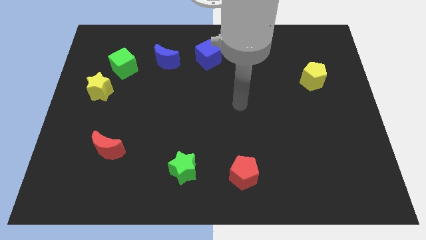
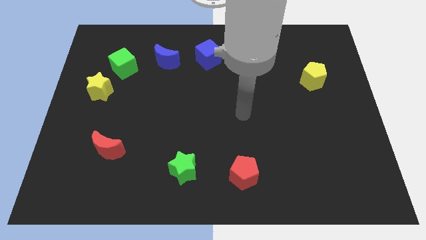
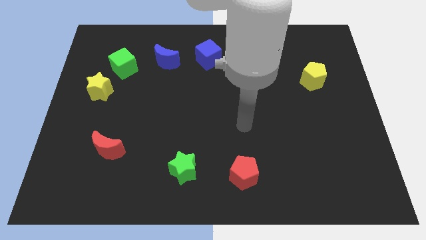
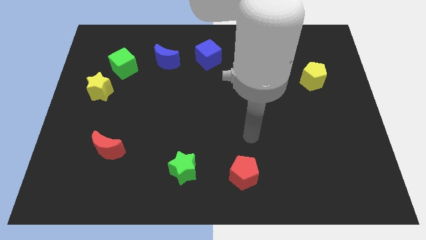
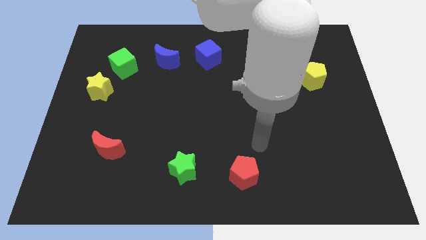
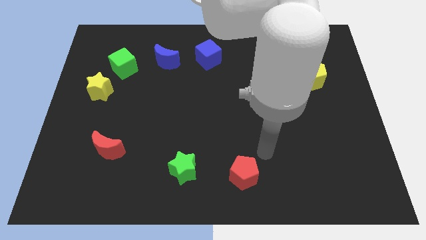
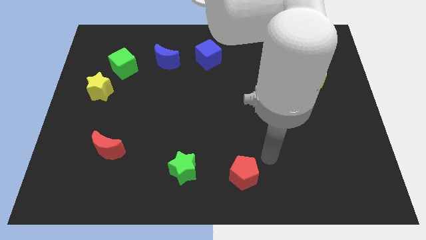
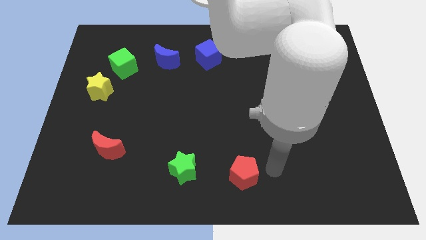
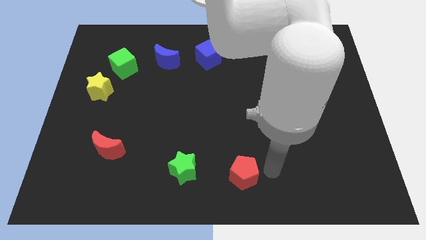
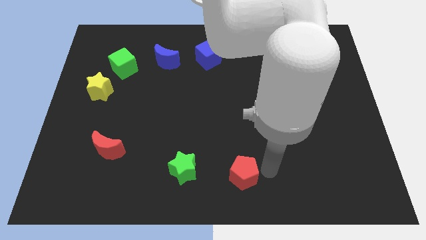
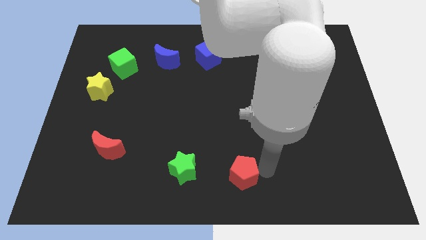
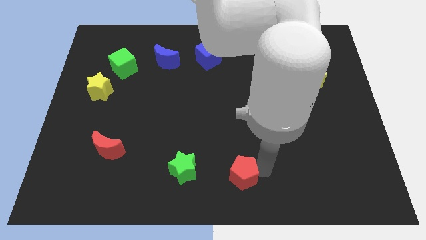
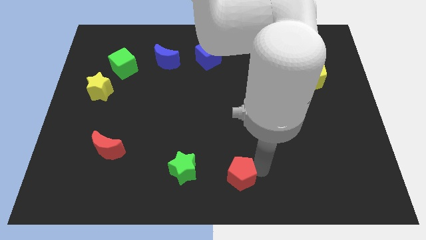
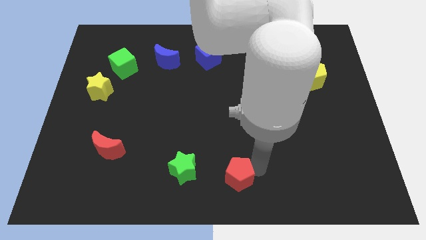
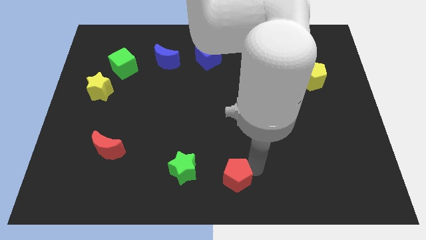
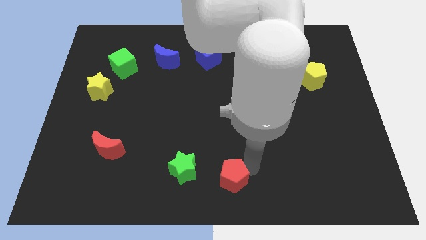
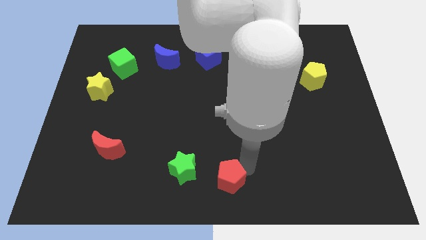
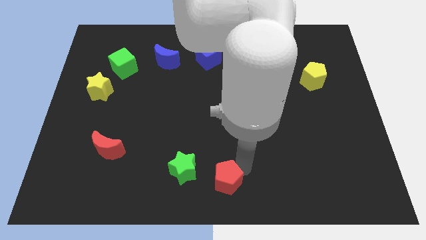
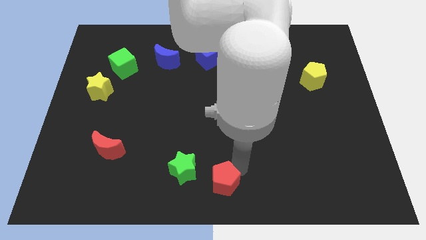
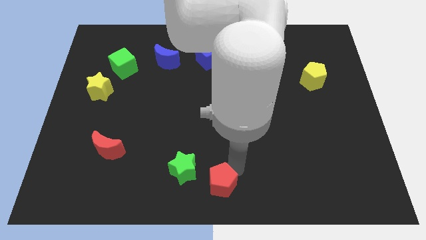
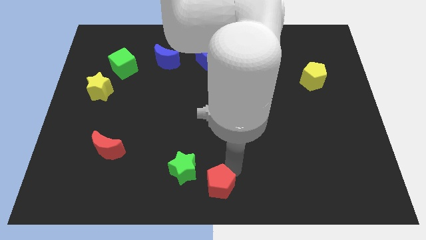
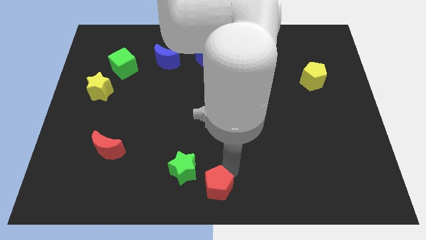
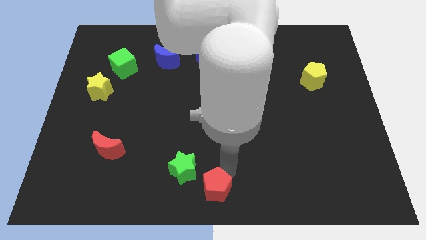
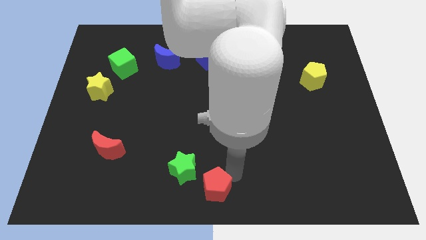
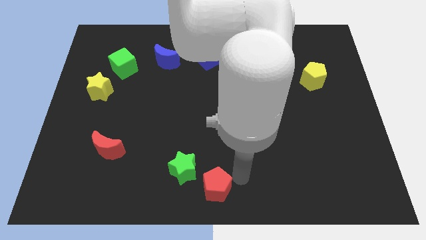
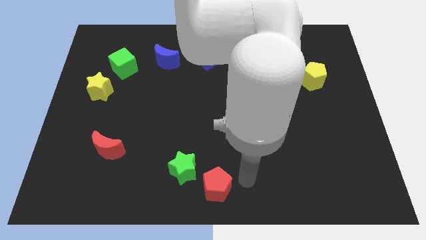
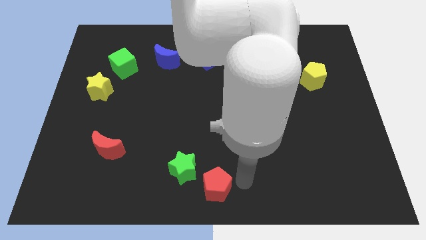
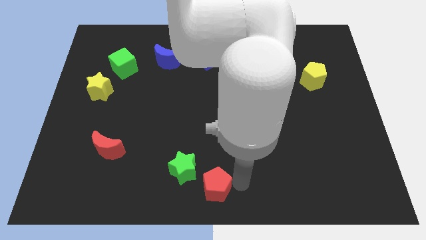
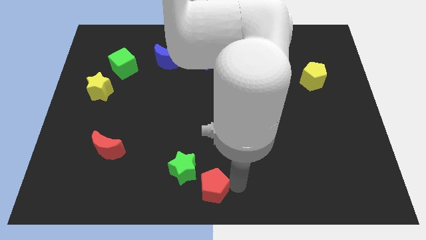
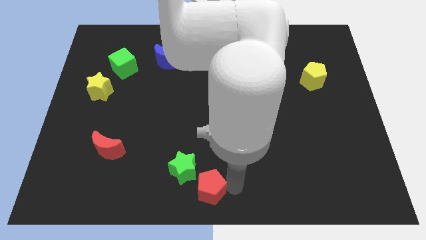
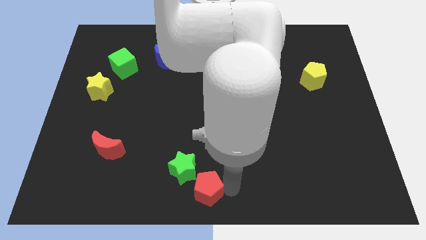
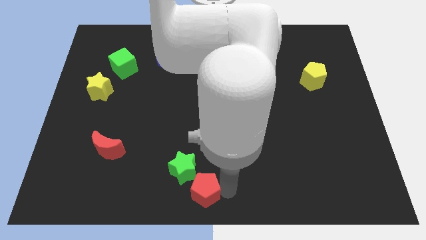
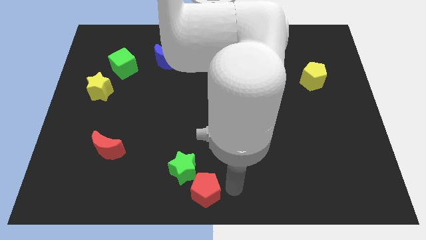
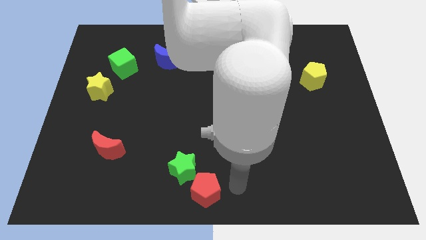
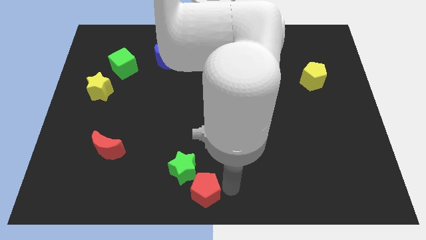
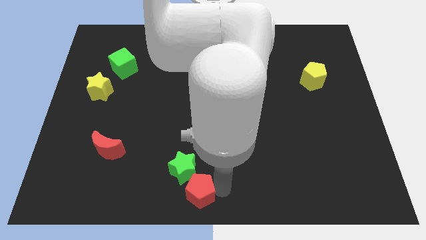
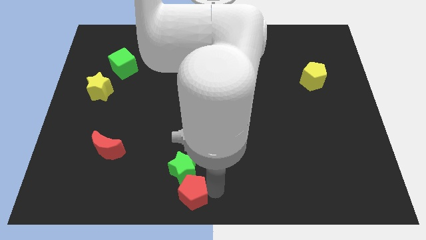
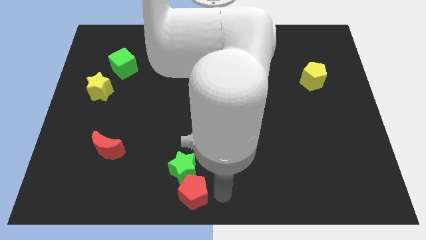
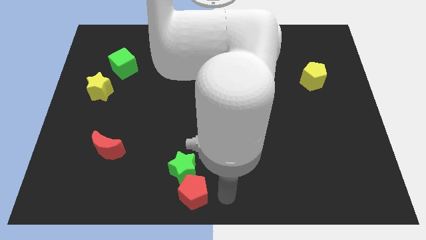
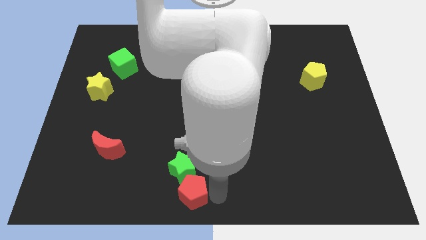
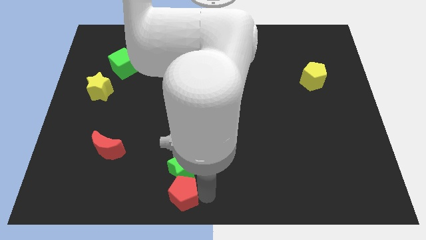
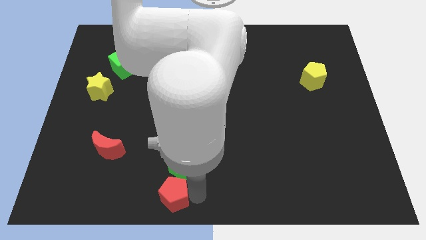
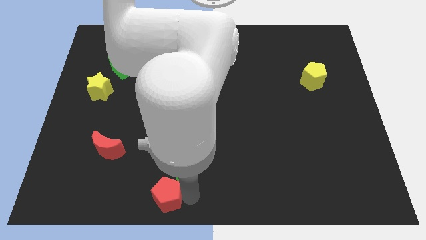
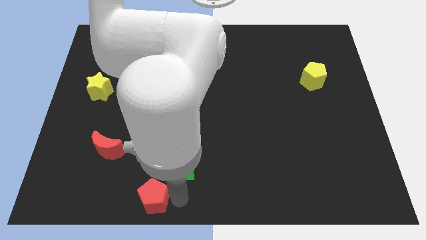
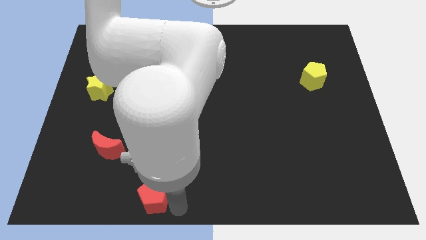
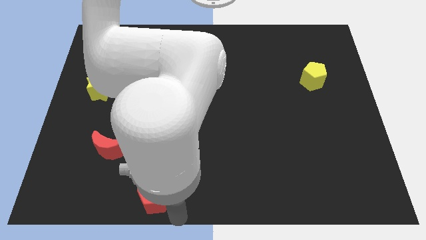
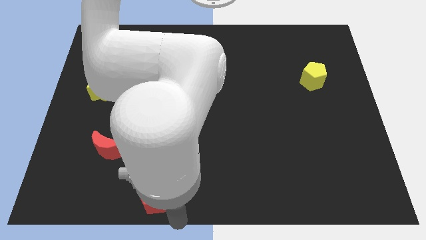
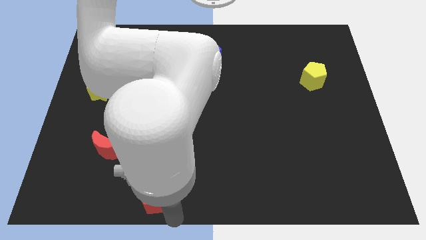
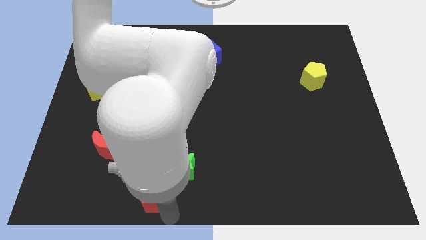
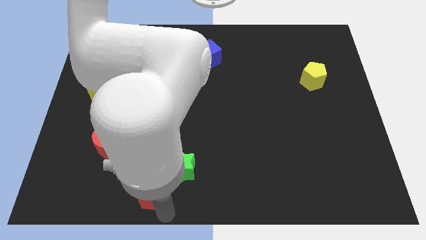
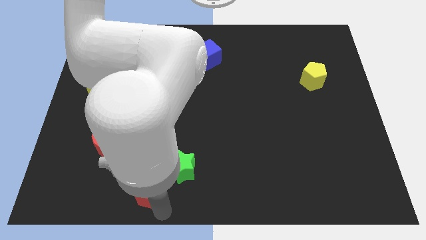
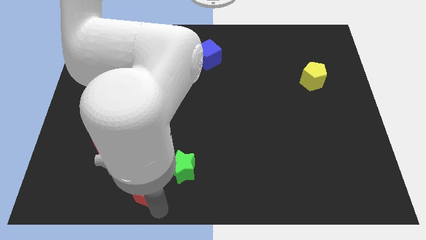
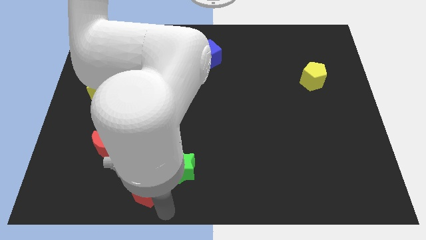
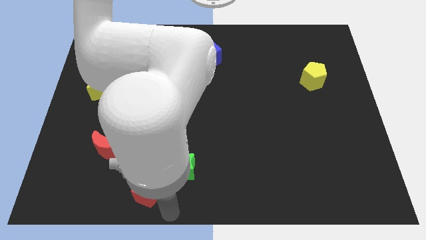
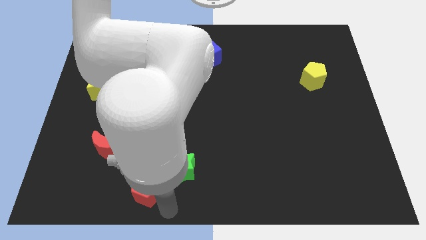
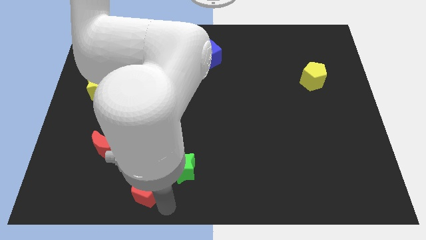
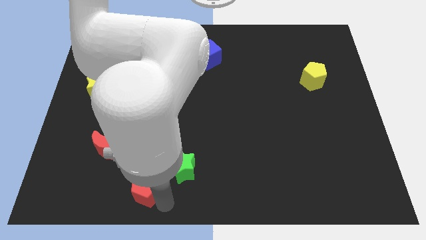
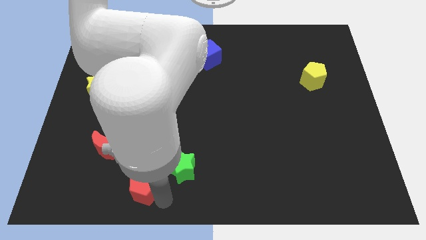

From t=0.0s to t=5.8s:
slide the red pentagon diagonally down and to the right of the red moon

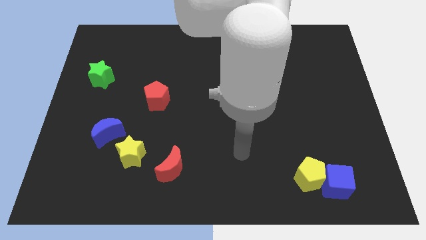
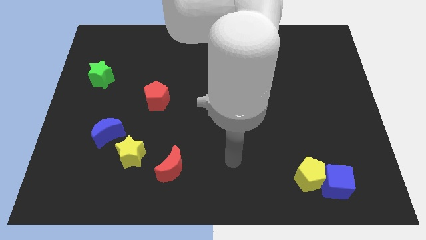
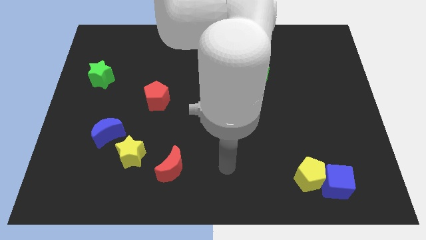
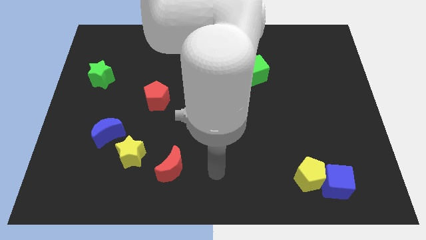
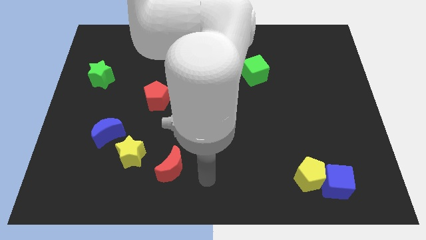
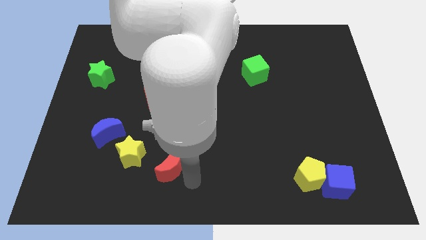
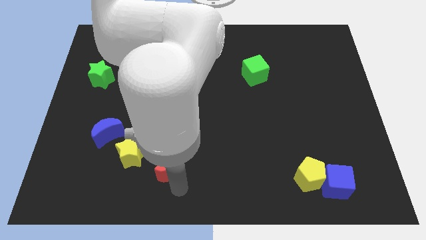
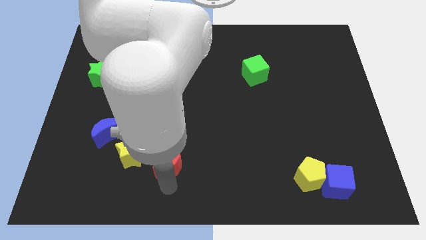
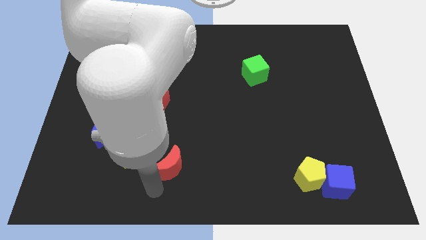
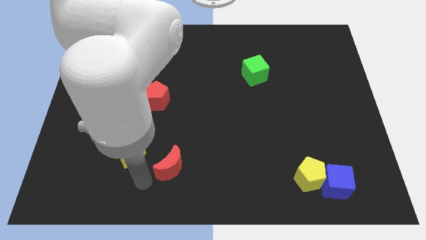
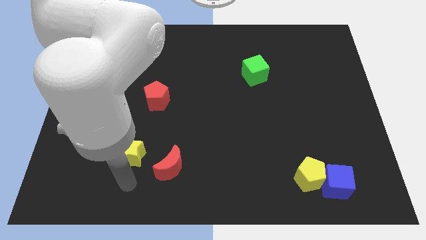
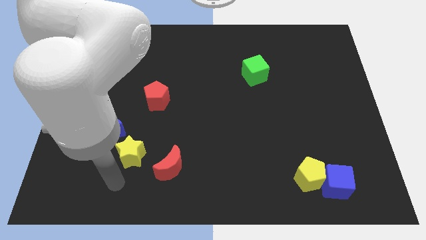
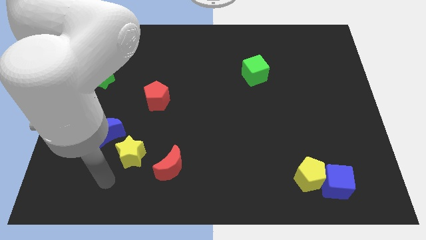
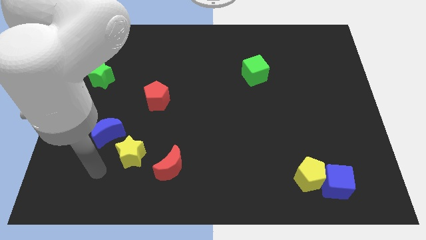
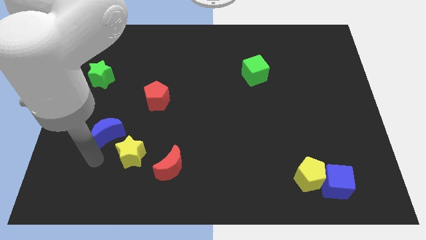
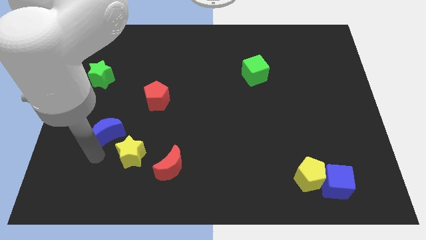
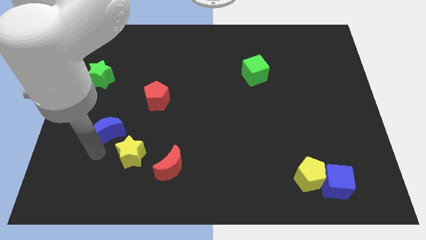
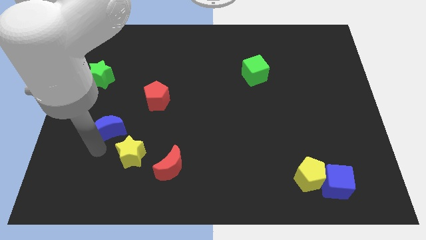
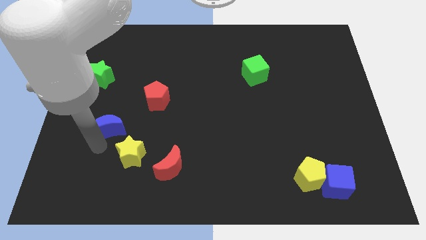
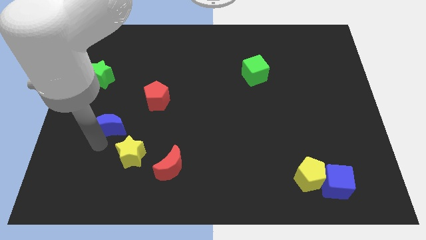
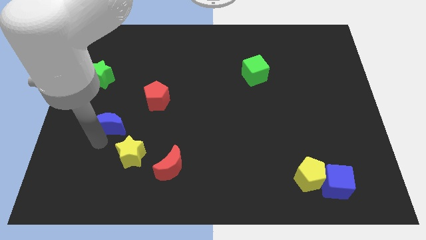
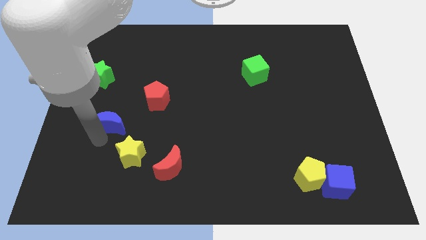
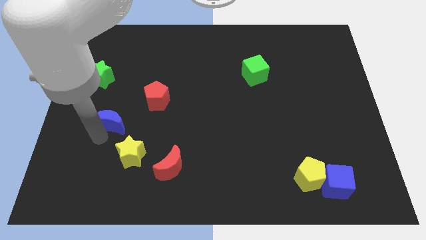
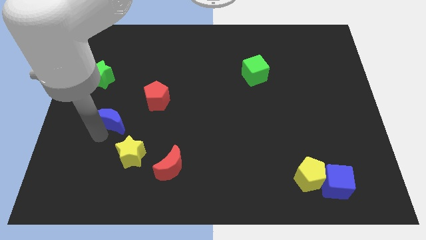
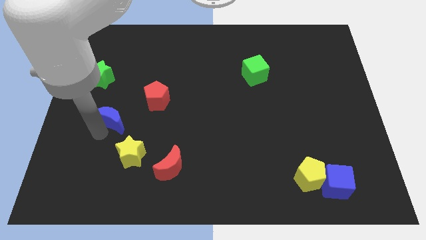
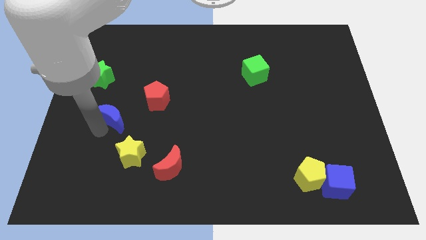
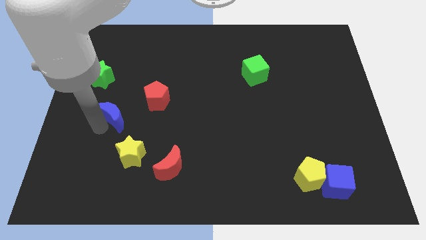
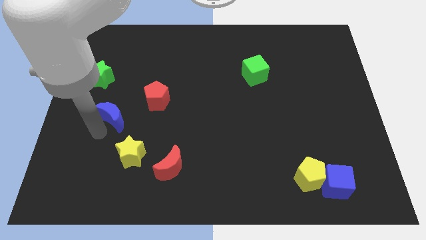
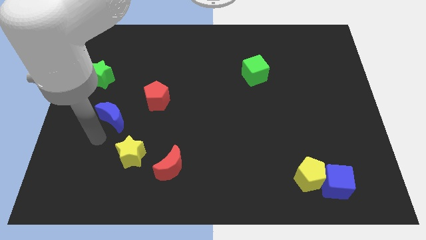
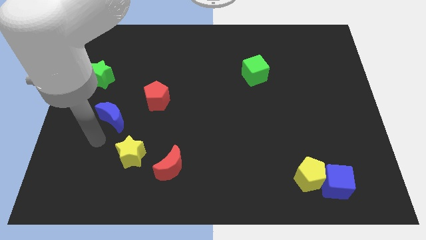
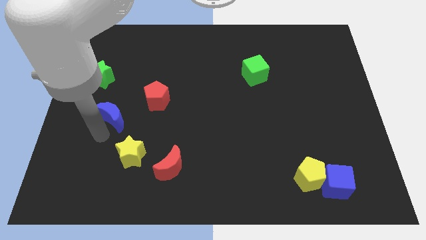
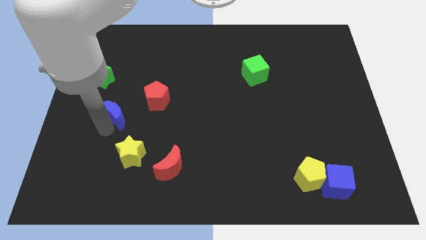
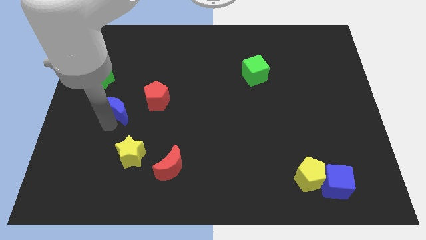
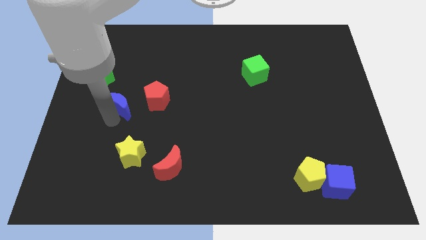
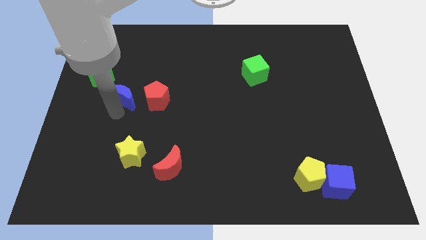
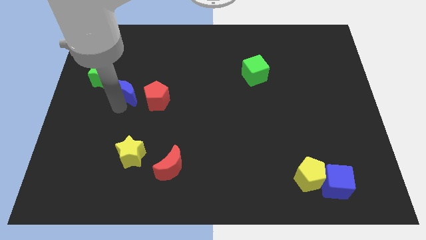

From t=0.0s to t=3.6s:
slide the blue moon to the top left of the red pentagon
